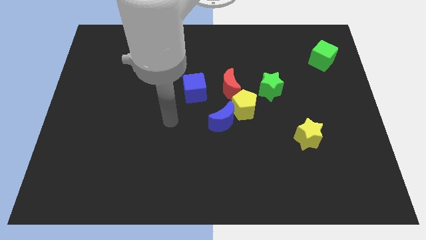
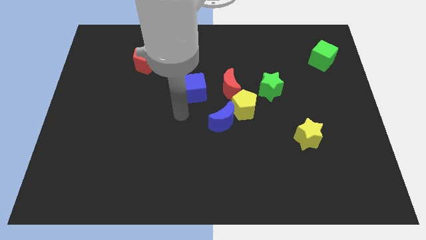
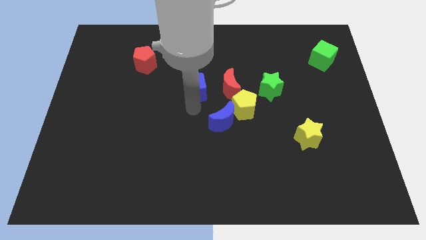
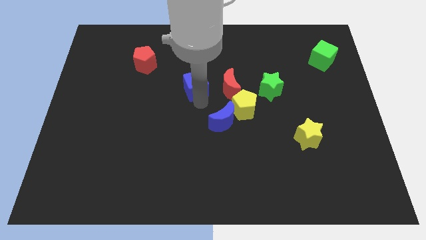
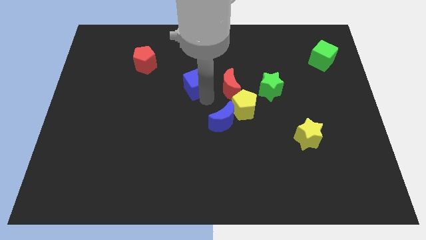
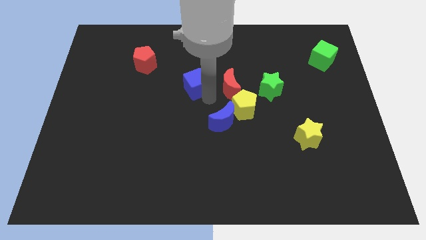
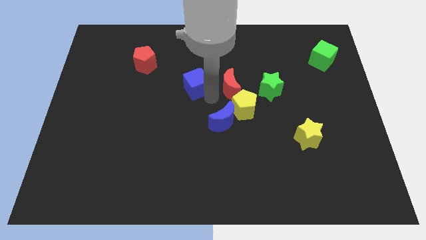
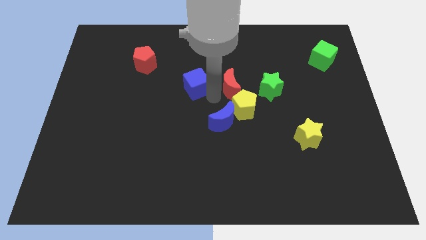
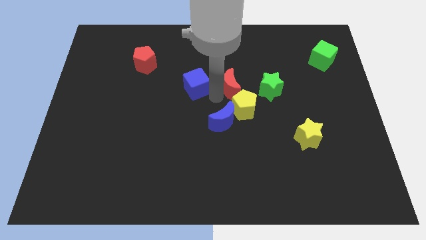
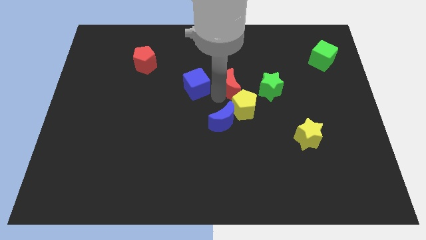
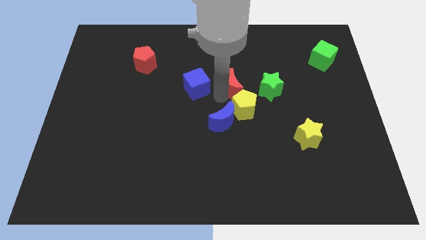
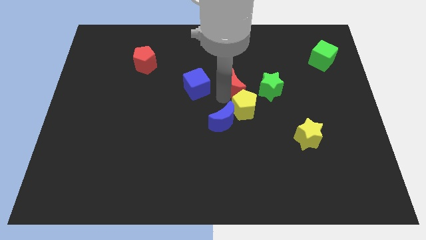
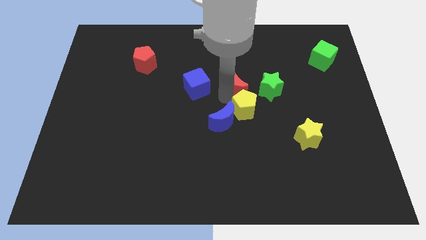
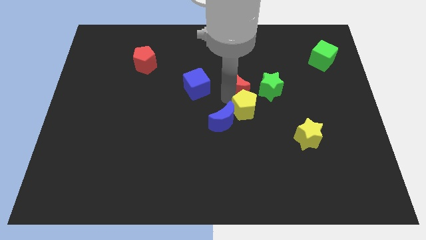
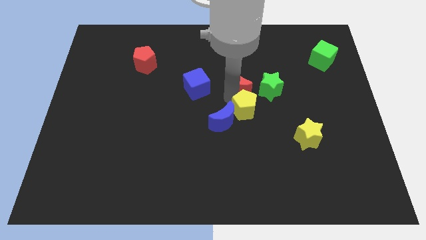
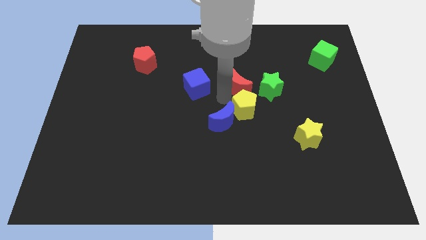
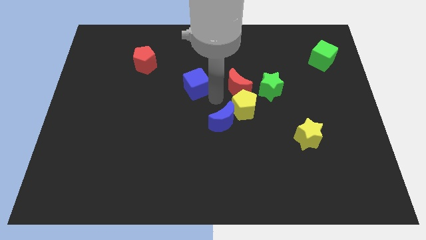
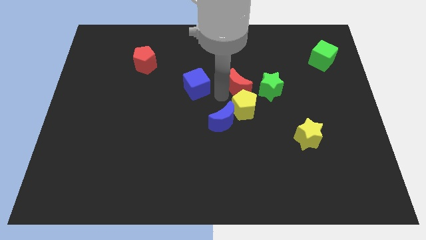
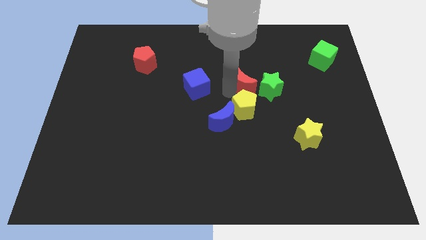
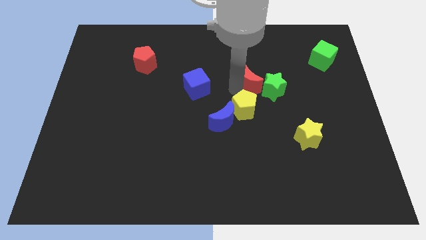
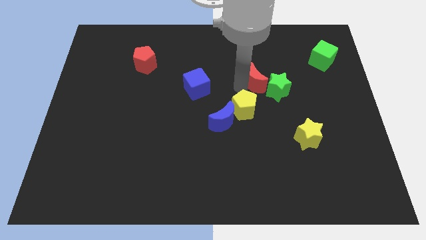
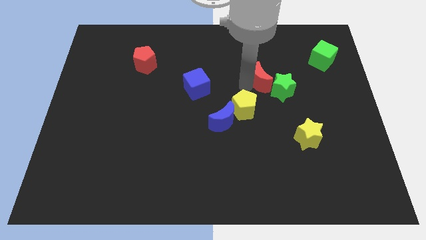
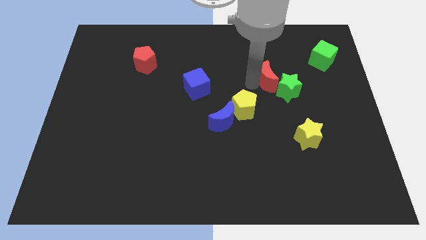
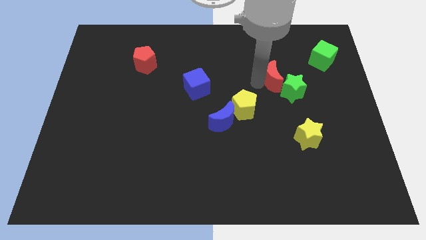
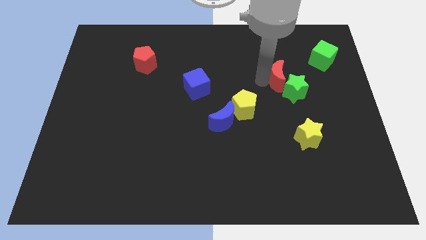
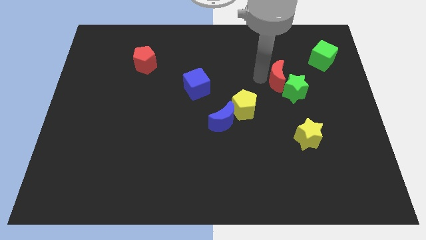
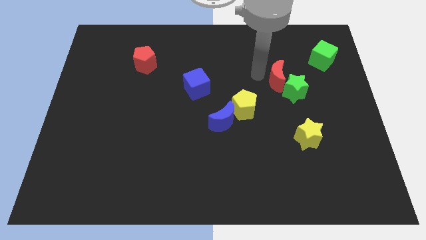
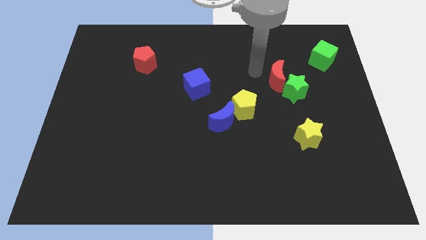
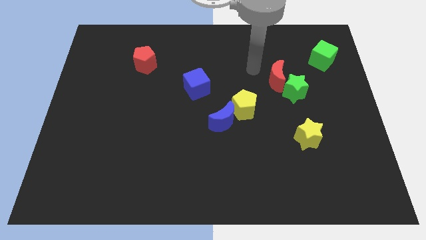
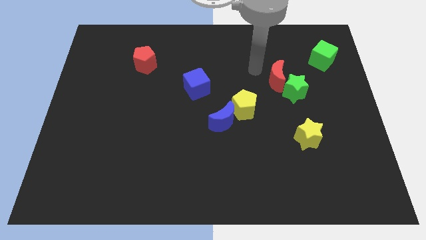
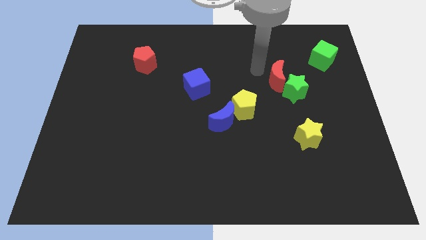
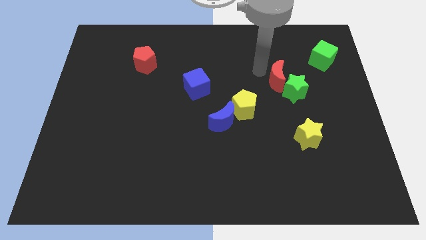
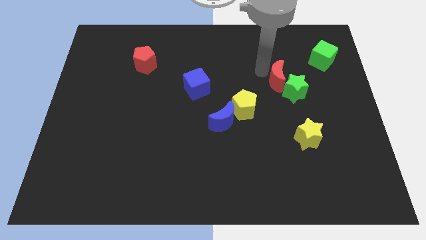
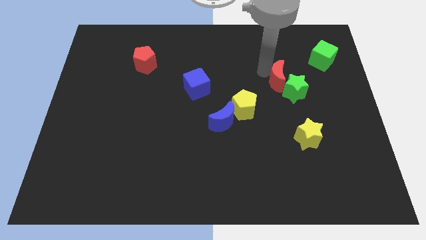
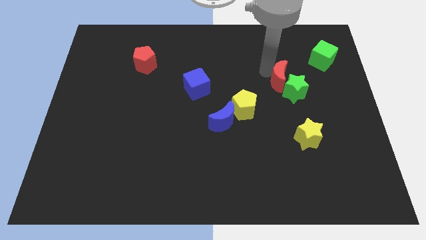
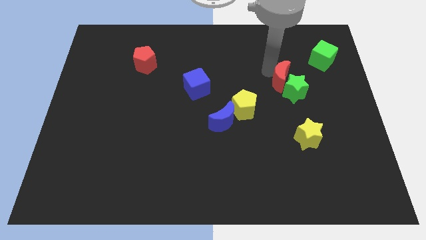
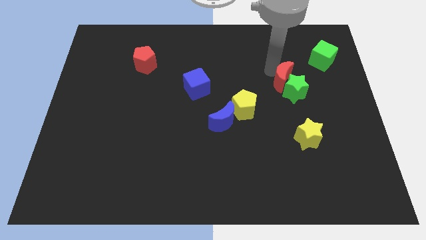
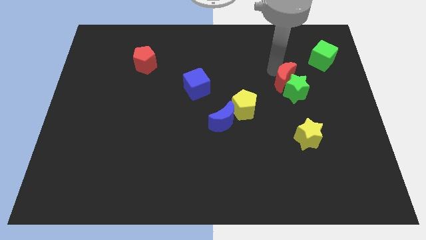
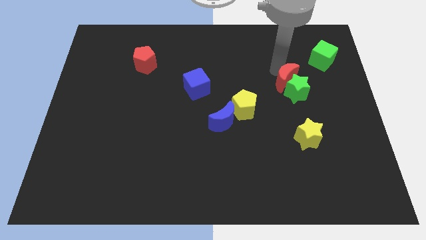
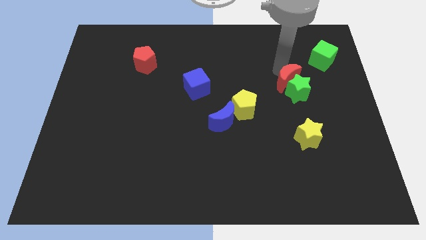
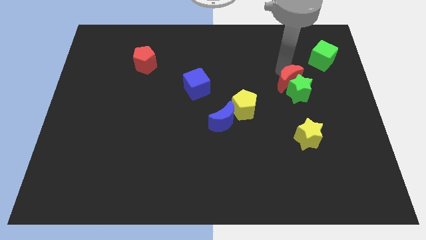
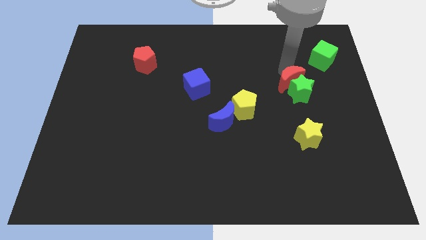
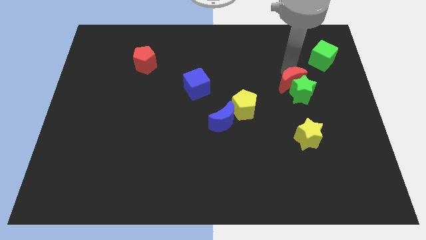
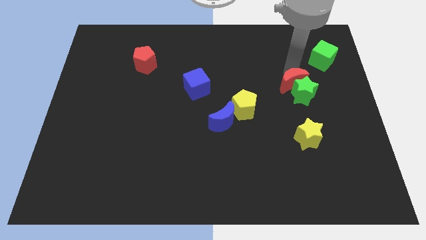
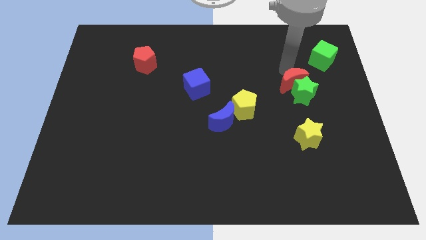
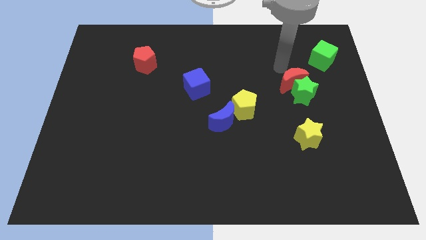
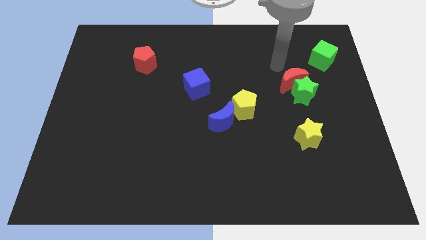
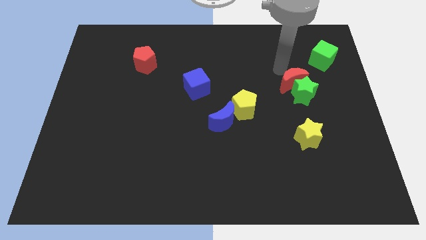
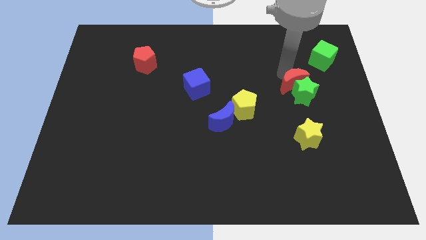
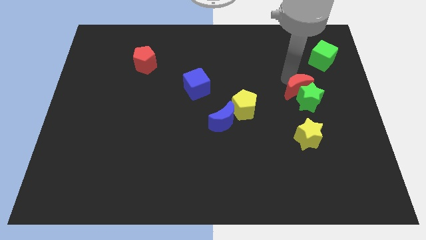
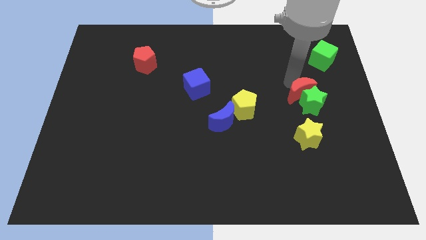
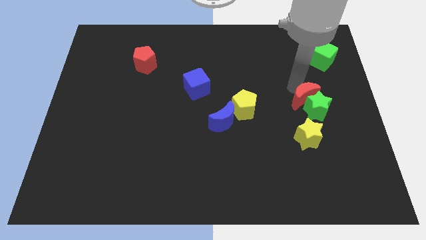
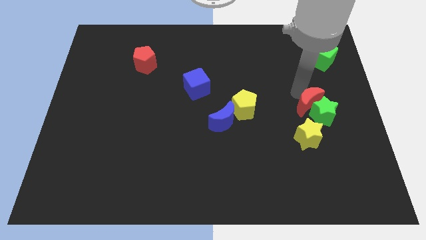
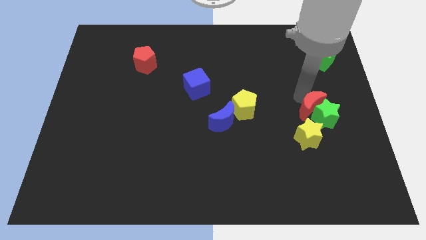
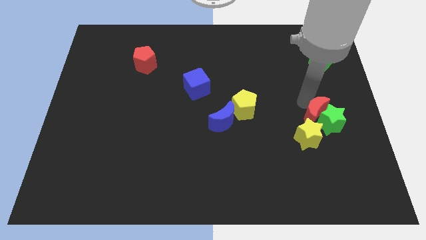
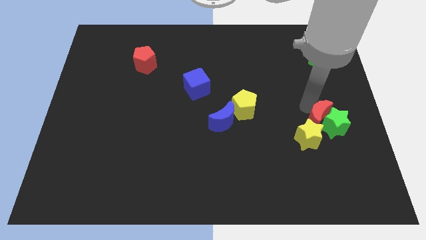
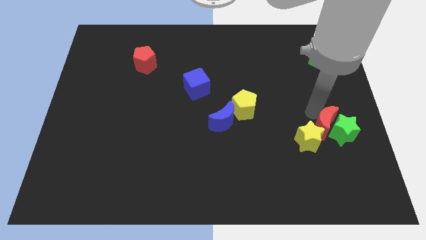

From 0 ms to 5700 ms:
move the red moon diagonally downwards and right

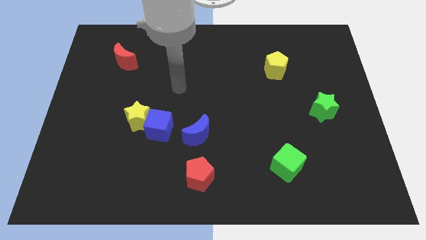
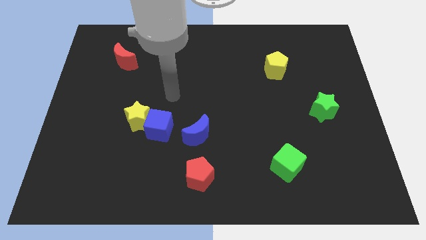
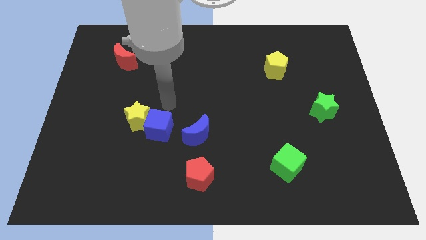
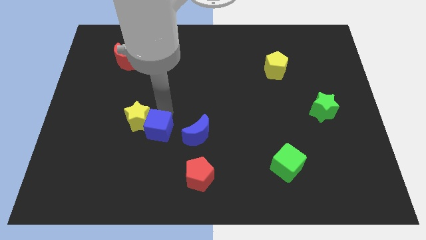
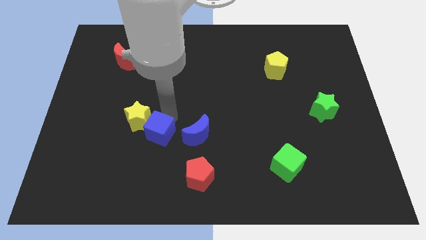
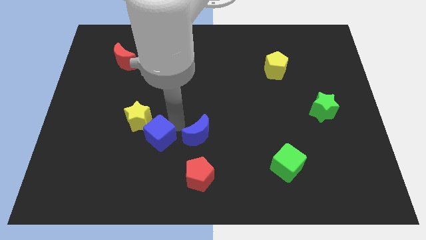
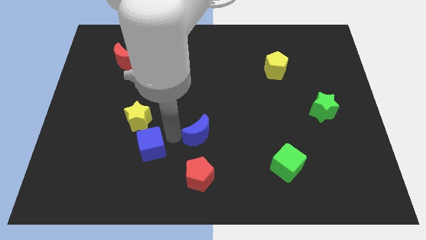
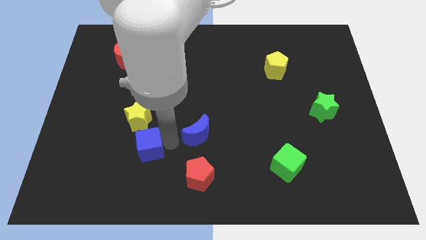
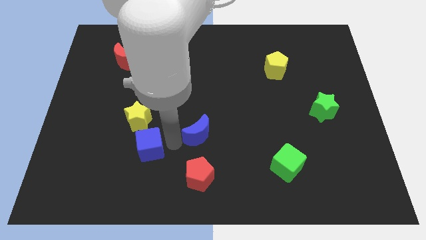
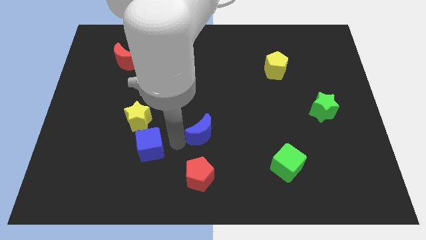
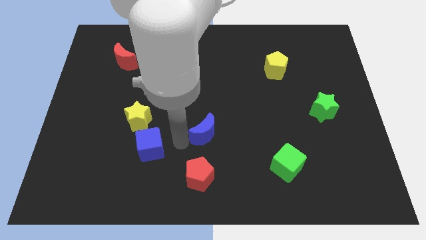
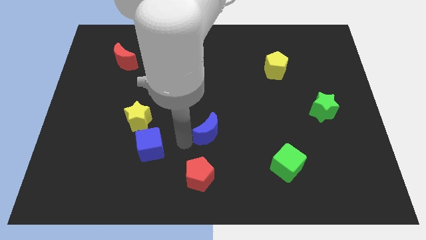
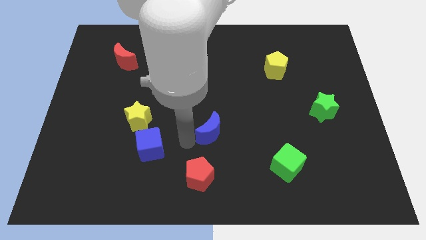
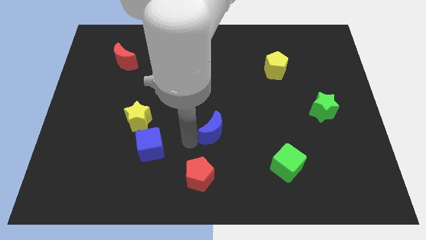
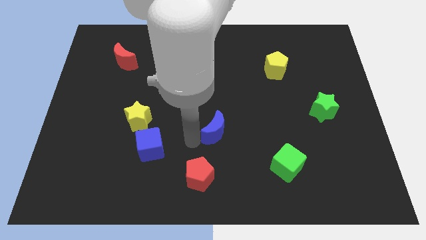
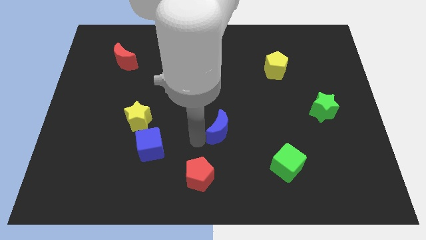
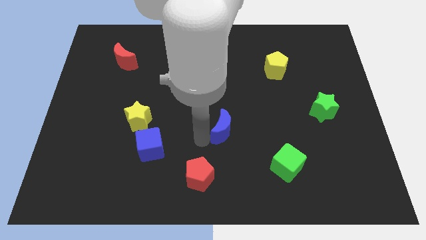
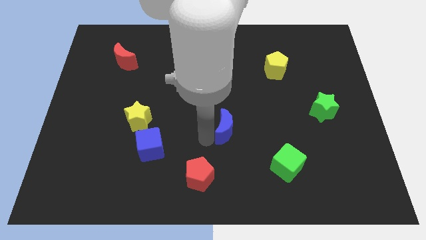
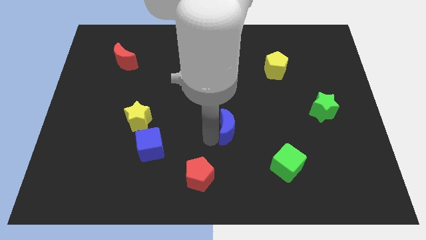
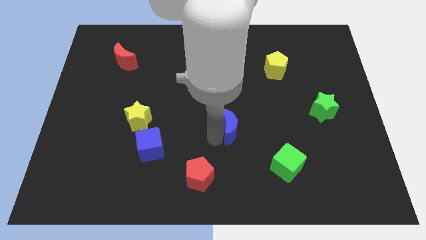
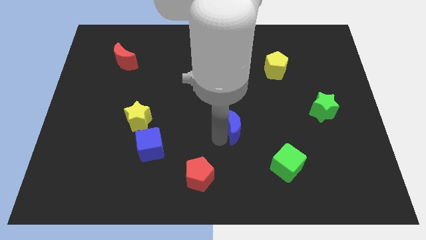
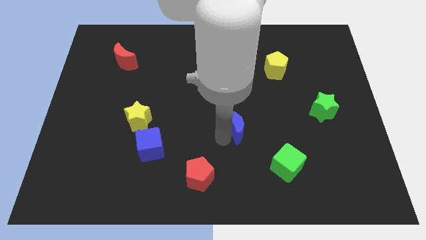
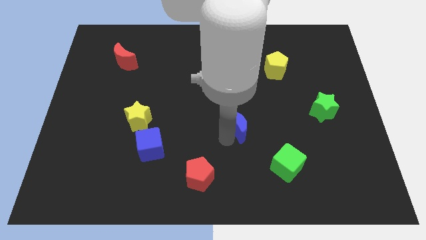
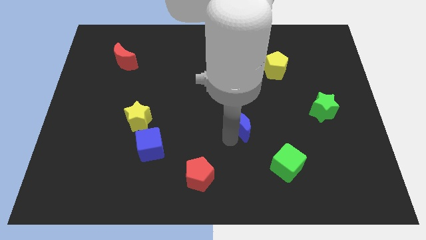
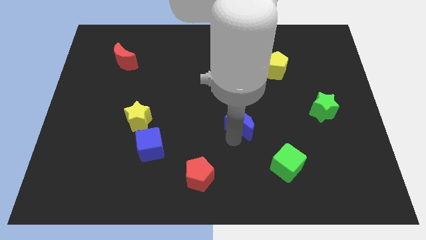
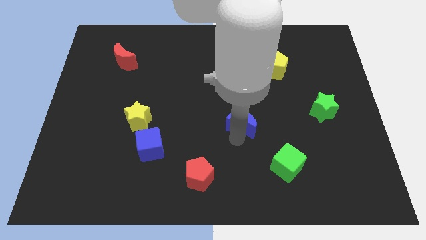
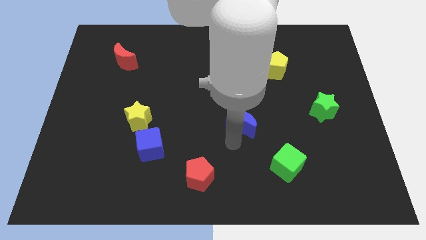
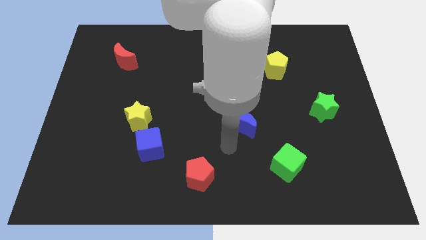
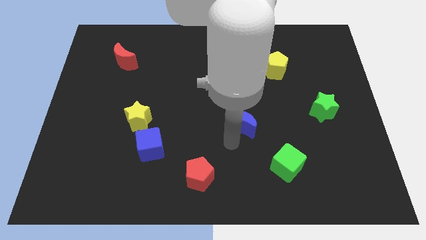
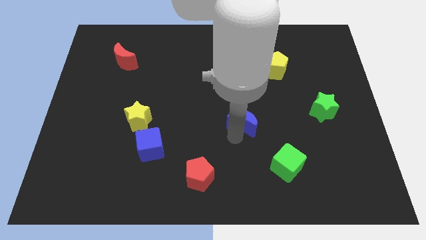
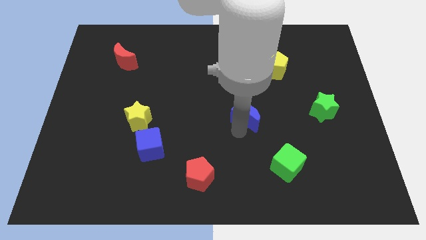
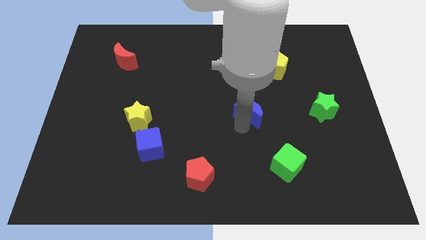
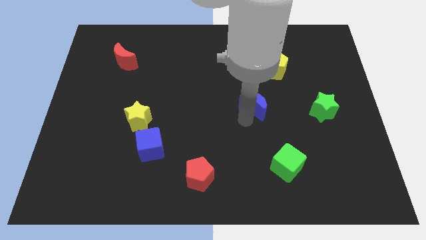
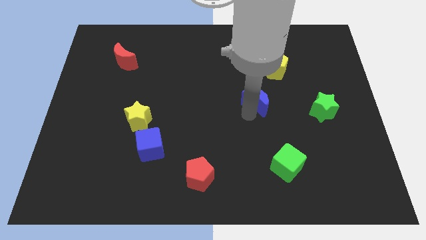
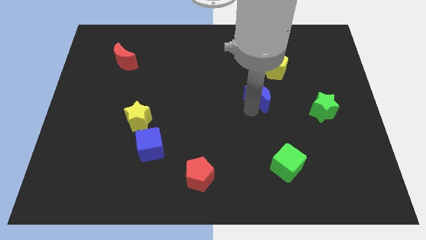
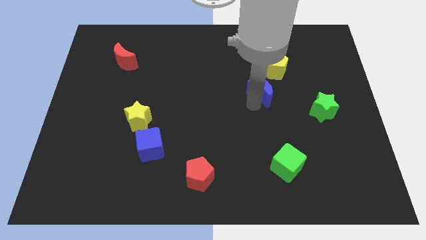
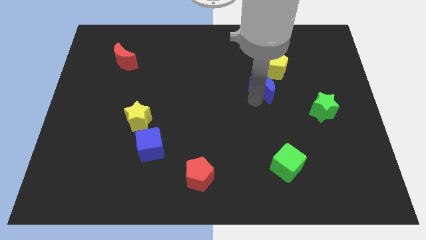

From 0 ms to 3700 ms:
slide the blue moon diagonally up and to the right
